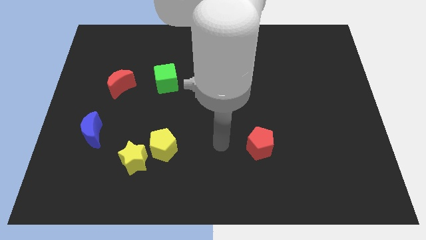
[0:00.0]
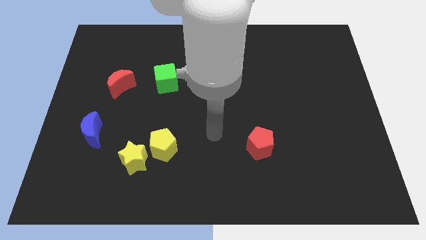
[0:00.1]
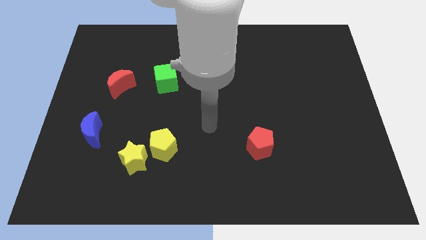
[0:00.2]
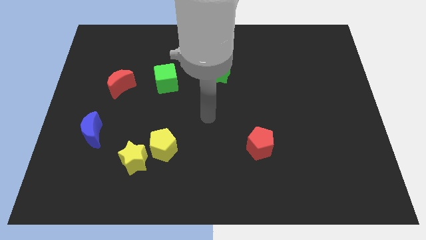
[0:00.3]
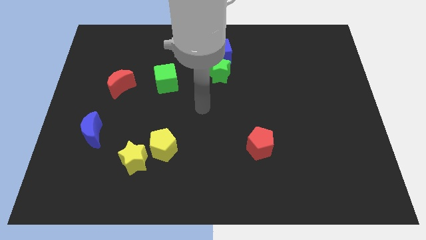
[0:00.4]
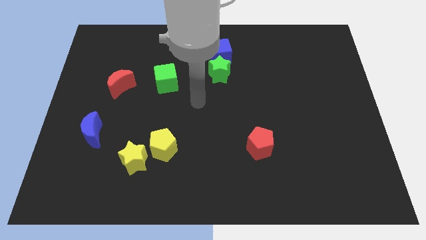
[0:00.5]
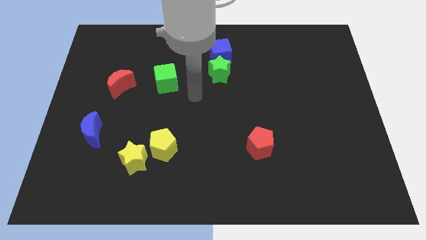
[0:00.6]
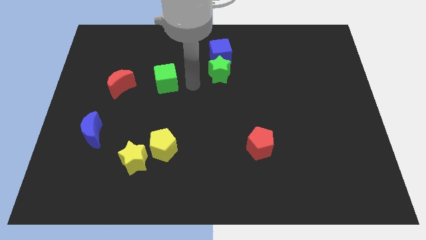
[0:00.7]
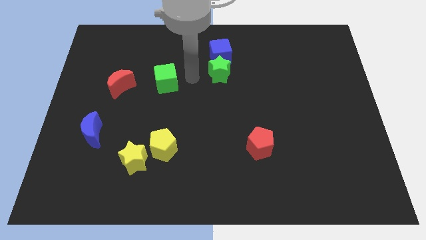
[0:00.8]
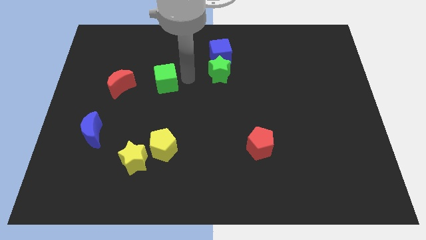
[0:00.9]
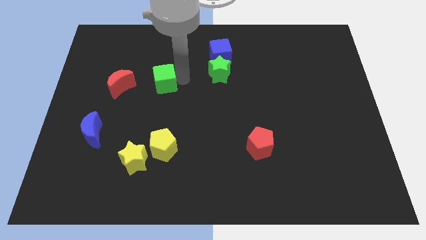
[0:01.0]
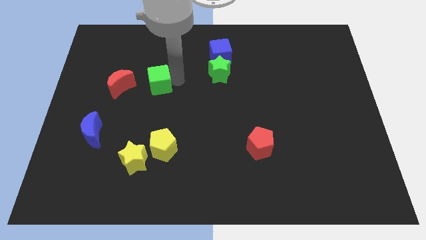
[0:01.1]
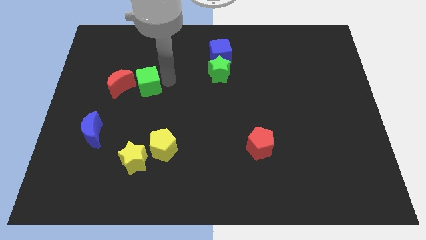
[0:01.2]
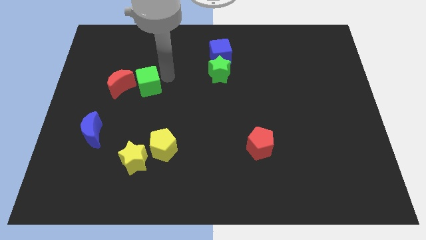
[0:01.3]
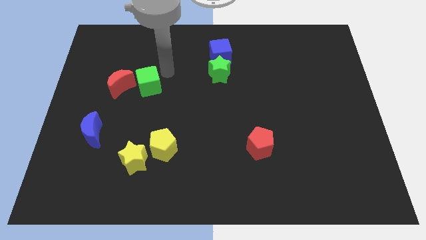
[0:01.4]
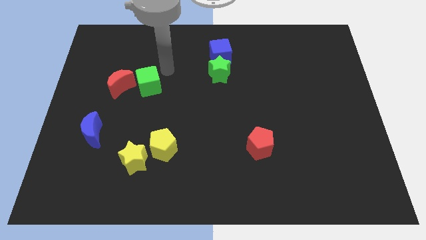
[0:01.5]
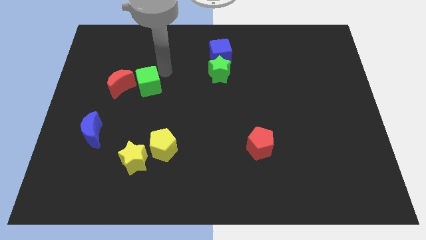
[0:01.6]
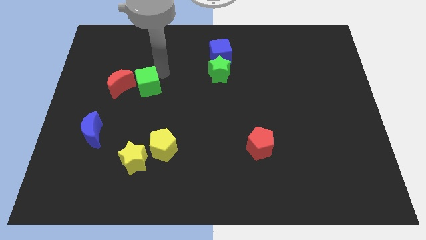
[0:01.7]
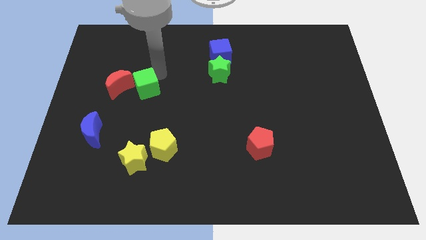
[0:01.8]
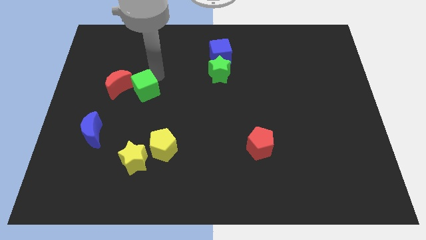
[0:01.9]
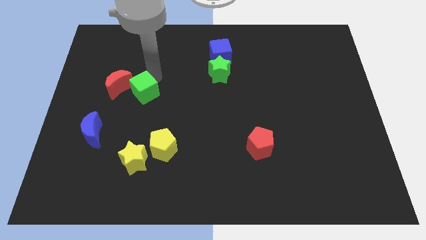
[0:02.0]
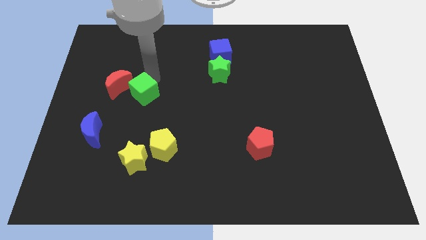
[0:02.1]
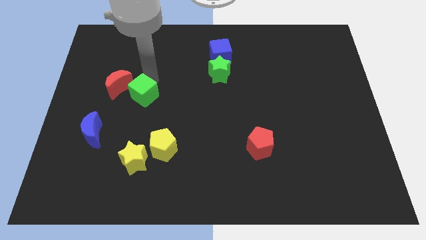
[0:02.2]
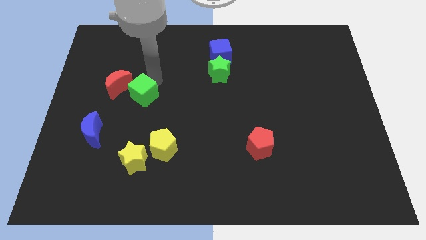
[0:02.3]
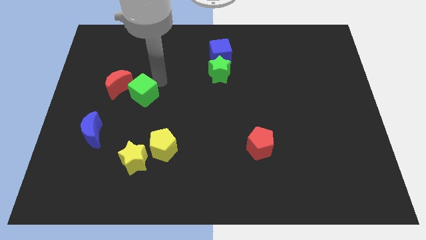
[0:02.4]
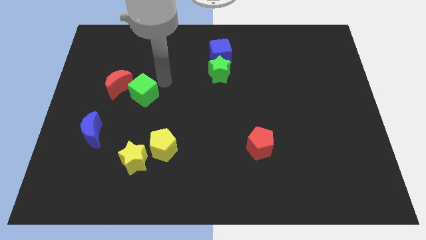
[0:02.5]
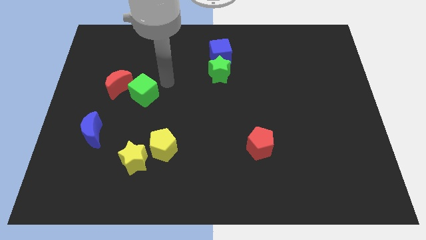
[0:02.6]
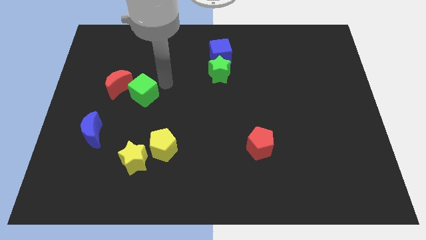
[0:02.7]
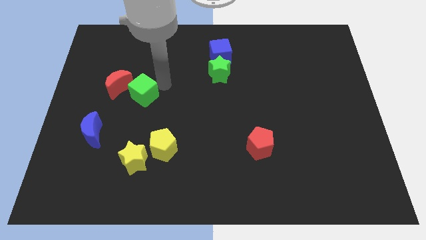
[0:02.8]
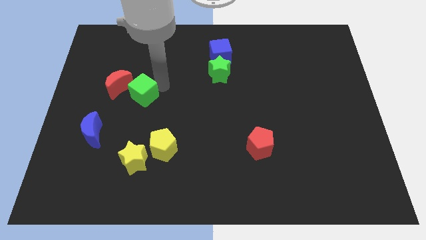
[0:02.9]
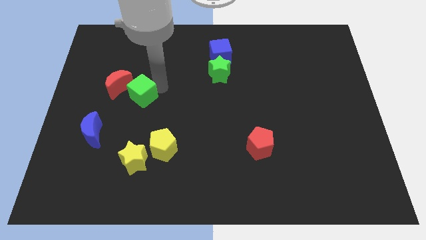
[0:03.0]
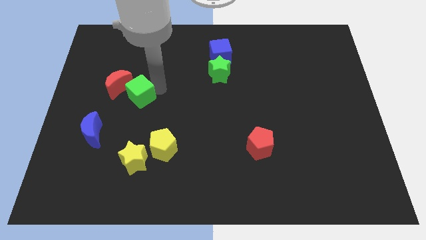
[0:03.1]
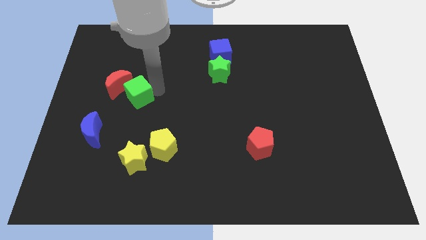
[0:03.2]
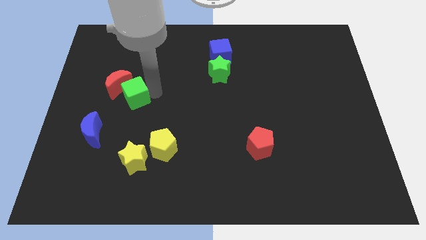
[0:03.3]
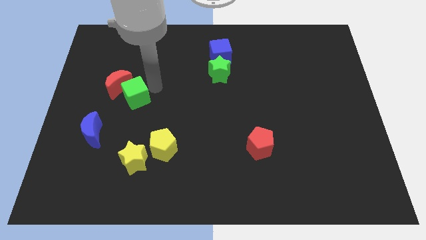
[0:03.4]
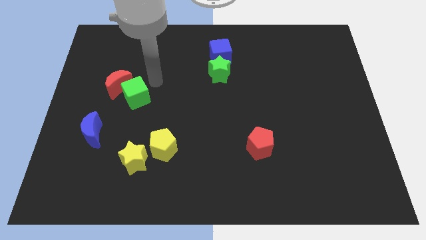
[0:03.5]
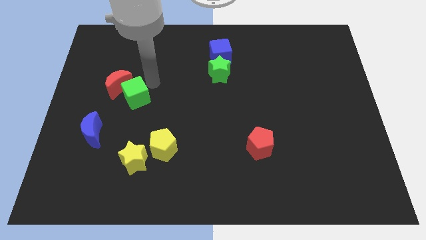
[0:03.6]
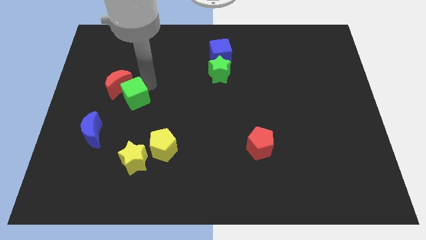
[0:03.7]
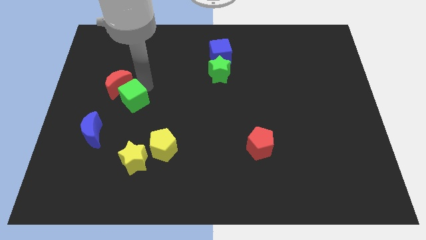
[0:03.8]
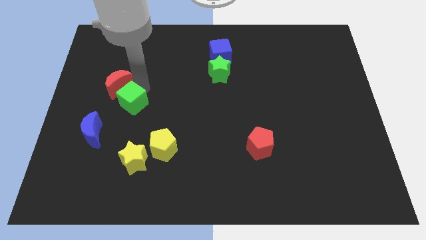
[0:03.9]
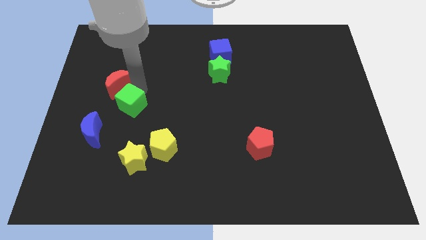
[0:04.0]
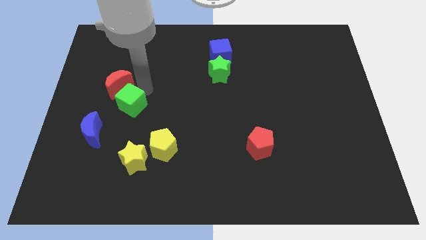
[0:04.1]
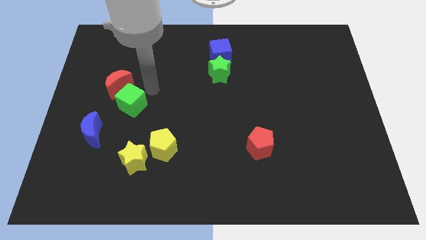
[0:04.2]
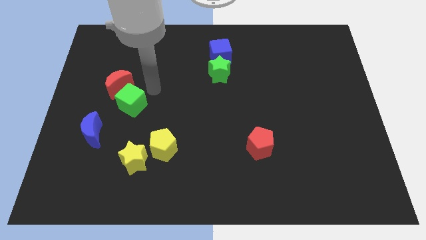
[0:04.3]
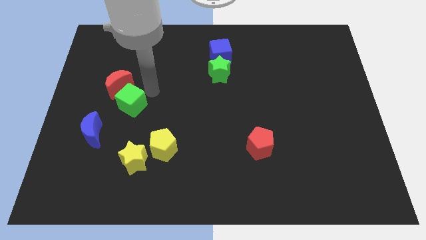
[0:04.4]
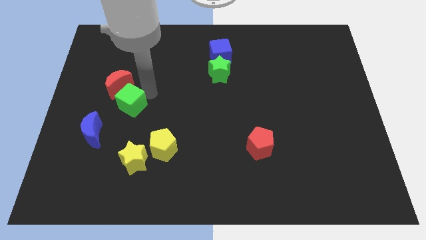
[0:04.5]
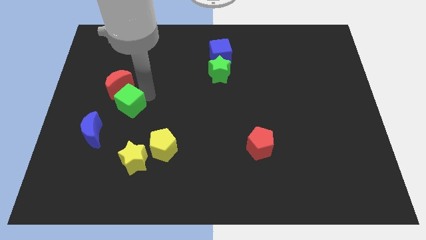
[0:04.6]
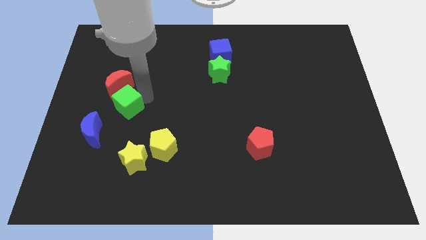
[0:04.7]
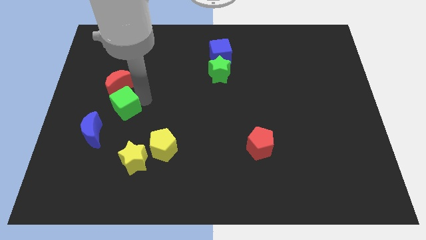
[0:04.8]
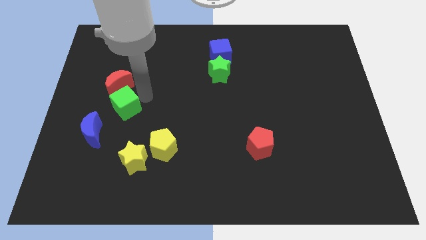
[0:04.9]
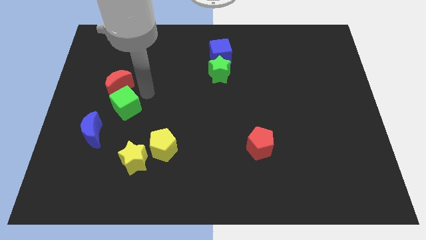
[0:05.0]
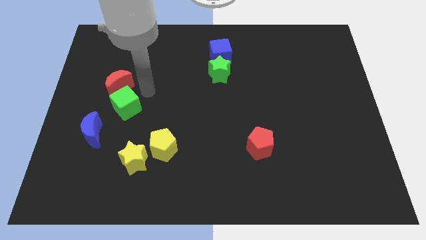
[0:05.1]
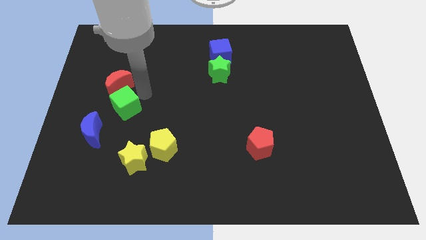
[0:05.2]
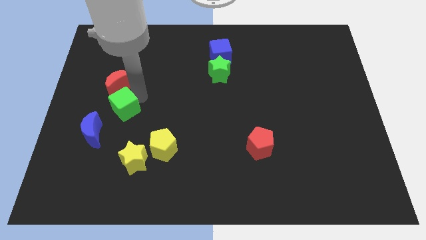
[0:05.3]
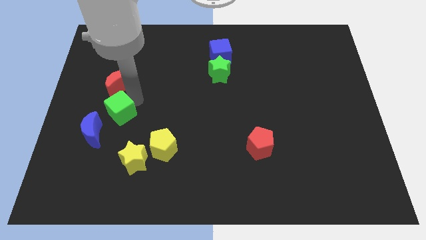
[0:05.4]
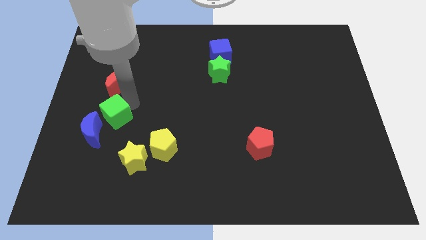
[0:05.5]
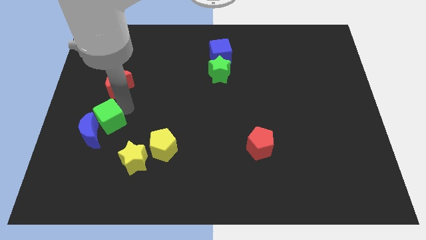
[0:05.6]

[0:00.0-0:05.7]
slide the green cube next to the blue moon

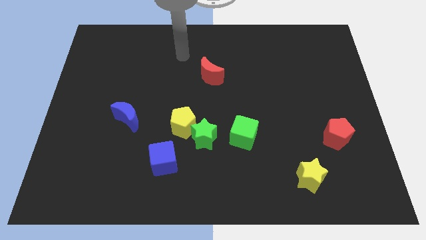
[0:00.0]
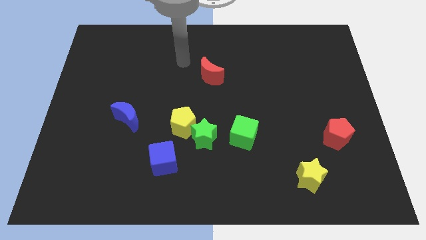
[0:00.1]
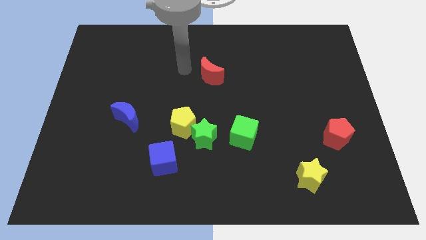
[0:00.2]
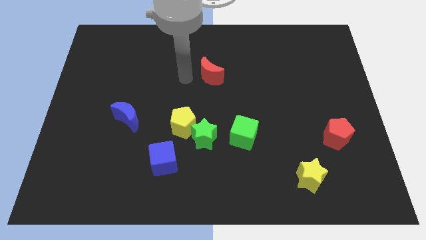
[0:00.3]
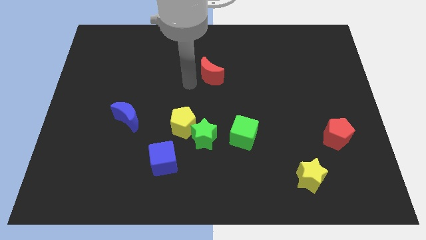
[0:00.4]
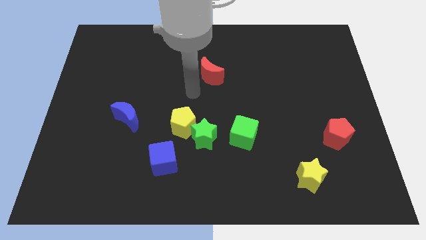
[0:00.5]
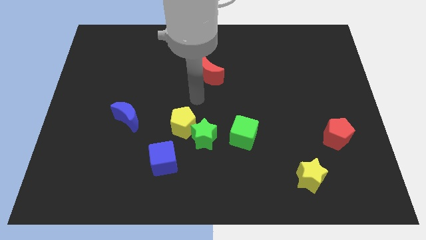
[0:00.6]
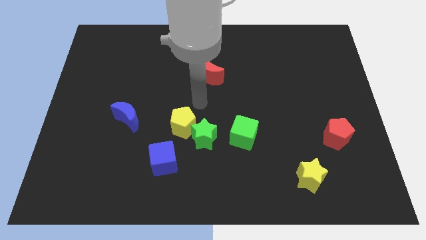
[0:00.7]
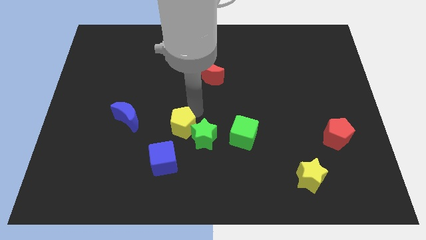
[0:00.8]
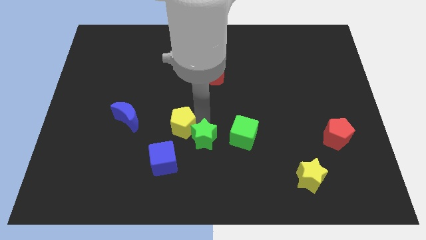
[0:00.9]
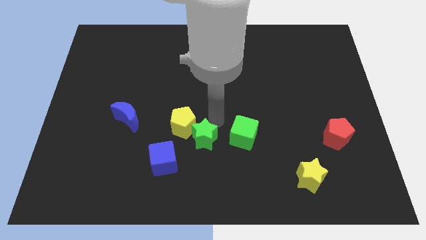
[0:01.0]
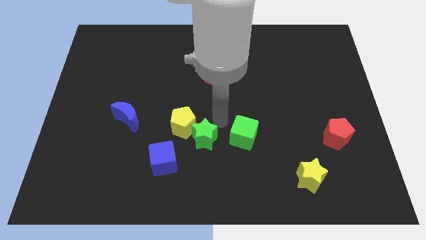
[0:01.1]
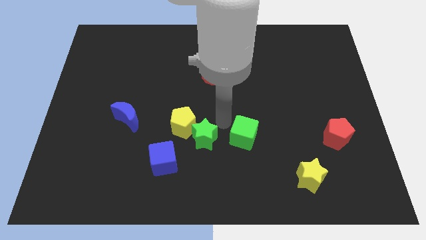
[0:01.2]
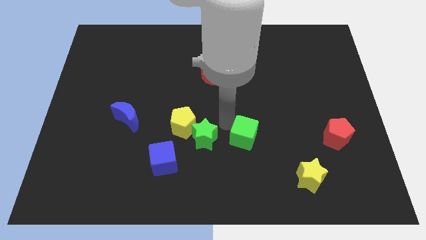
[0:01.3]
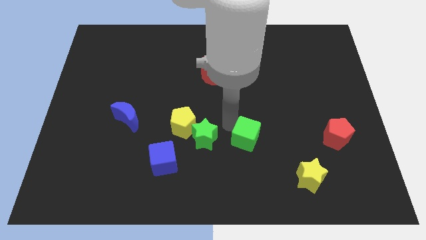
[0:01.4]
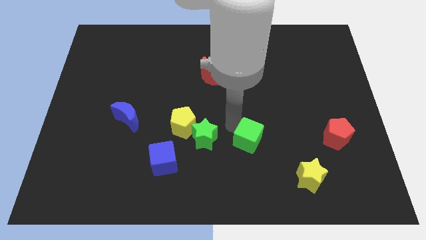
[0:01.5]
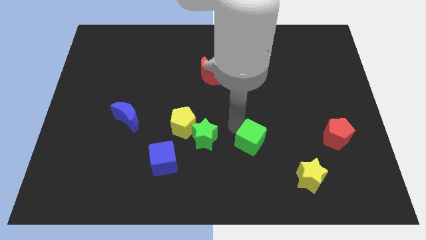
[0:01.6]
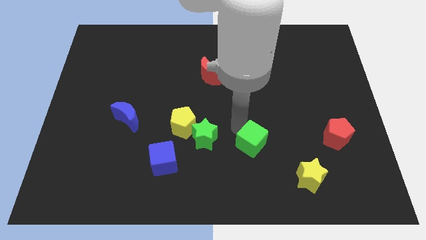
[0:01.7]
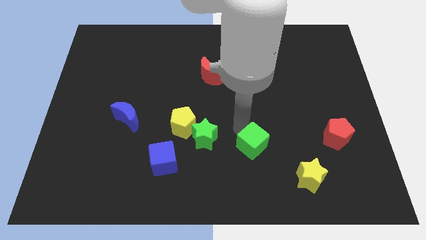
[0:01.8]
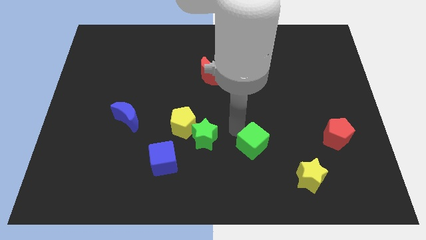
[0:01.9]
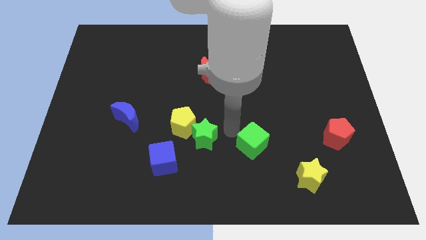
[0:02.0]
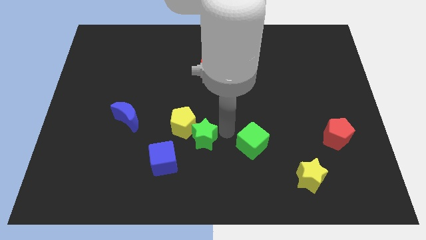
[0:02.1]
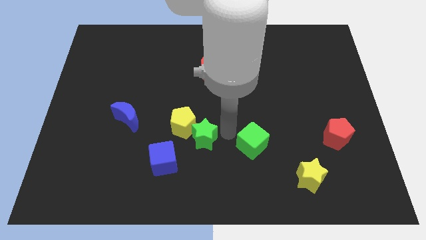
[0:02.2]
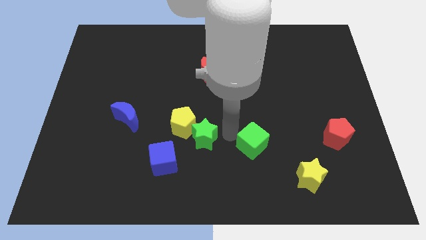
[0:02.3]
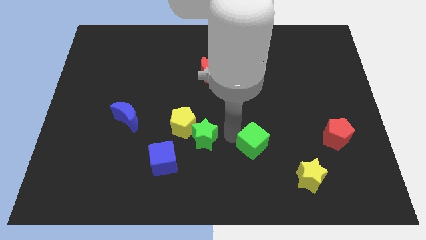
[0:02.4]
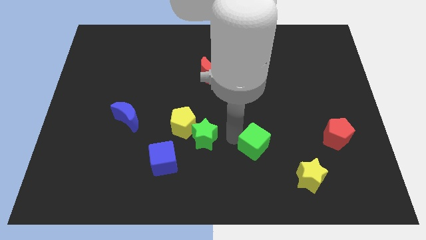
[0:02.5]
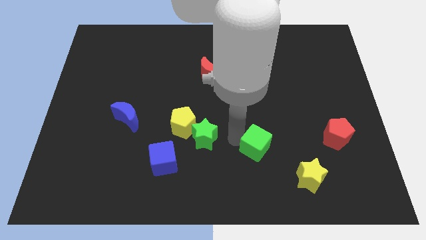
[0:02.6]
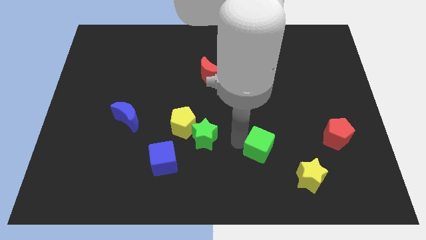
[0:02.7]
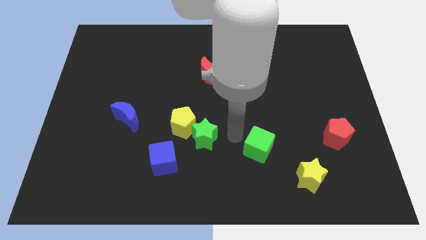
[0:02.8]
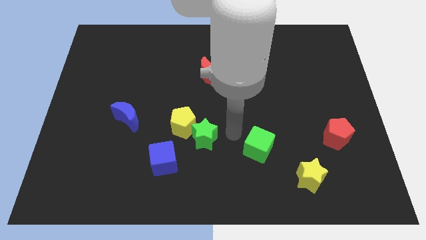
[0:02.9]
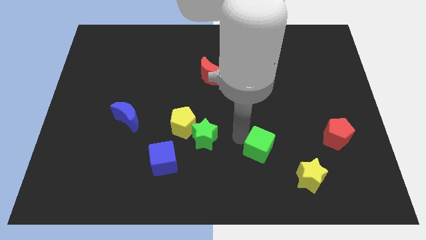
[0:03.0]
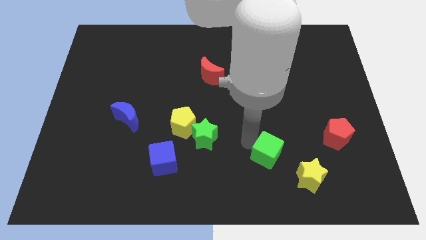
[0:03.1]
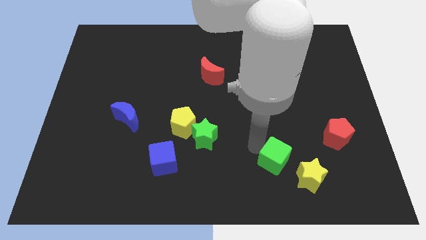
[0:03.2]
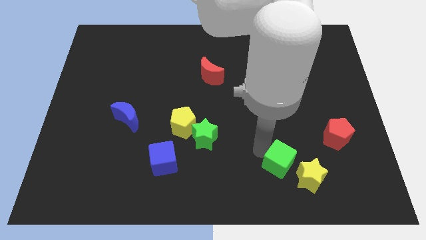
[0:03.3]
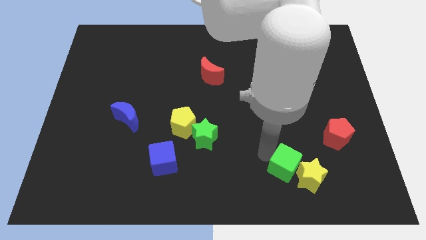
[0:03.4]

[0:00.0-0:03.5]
slide the green cube towards the yellow star
